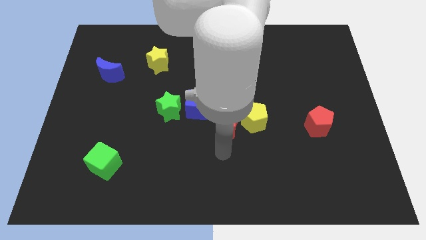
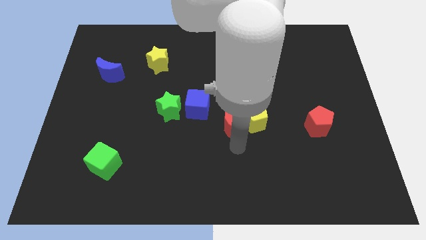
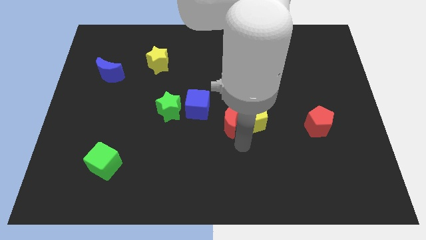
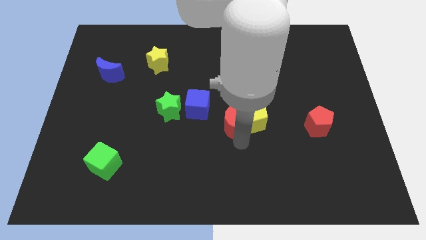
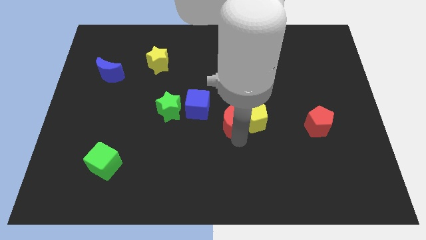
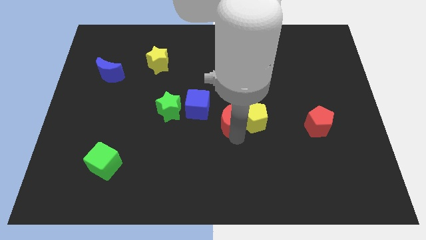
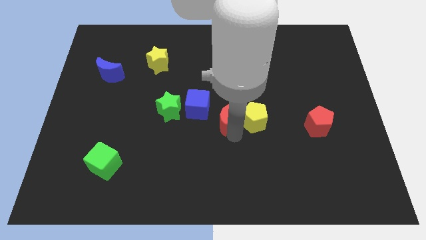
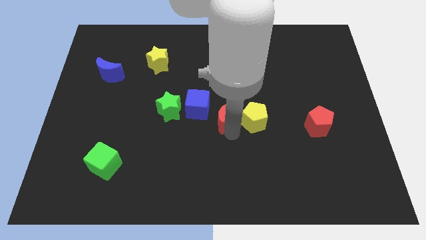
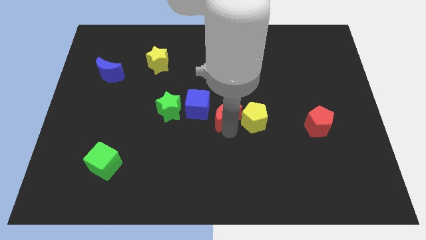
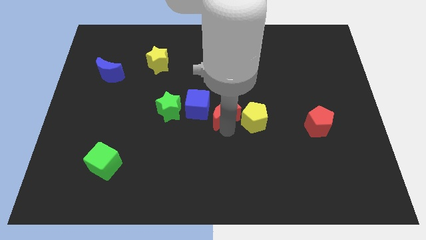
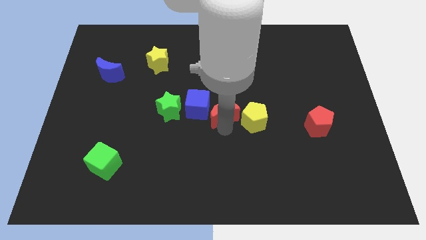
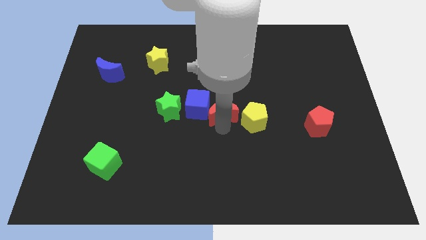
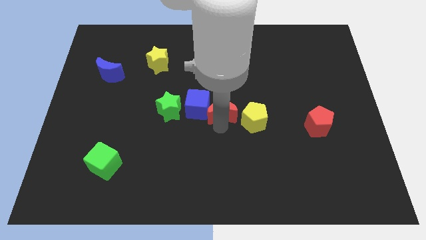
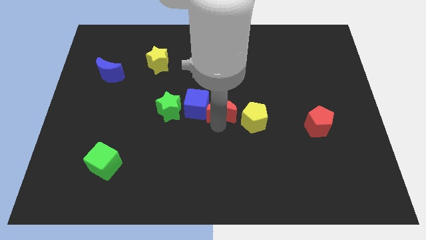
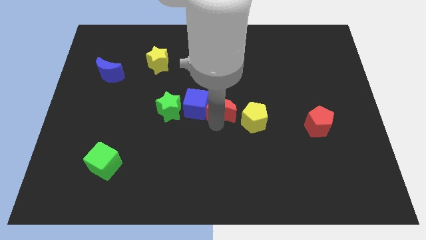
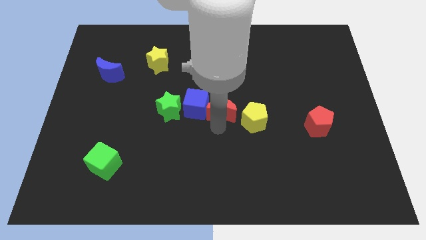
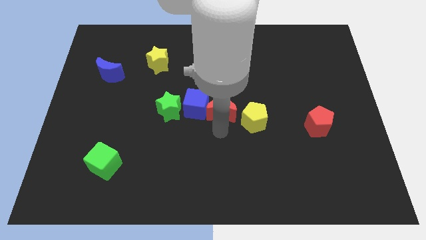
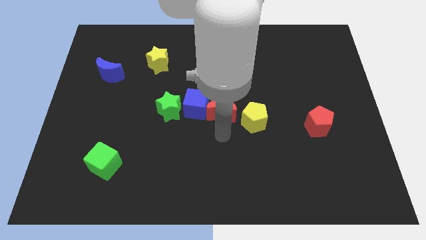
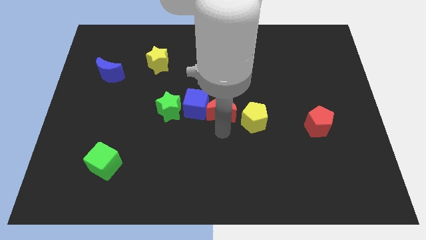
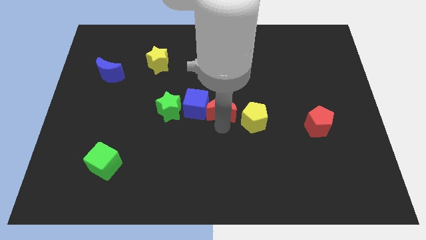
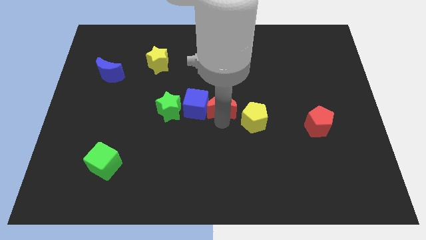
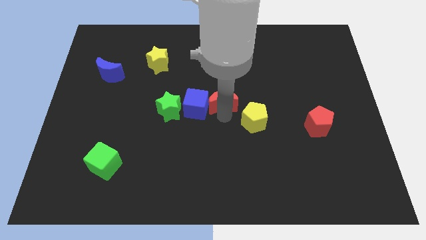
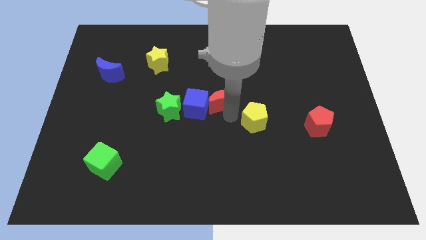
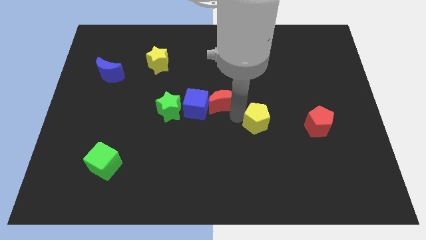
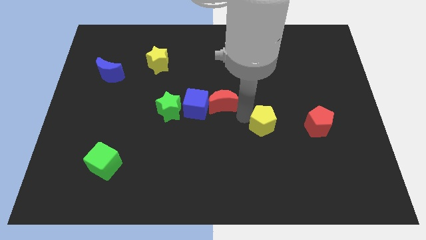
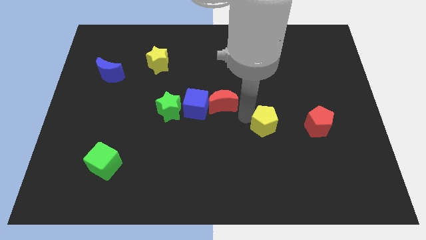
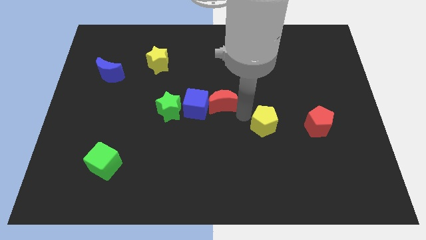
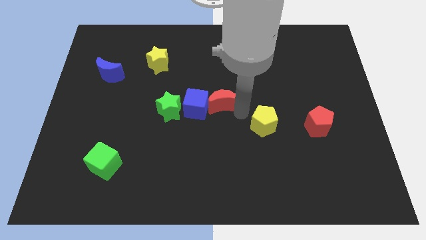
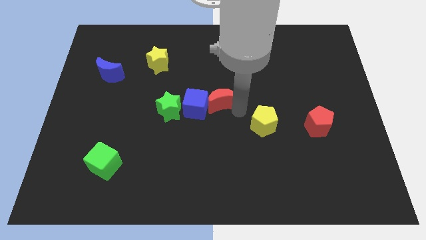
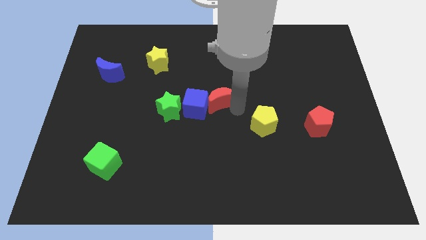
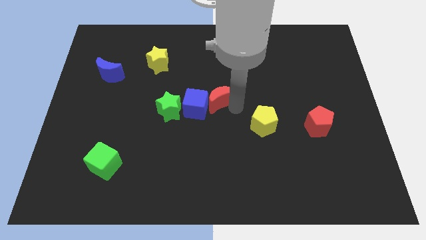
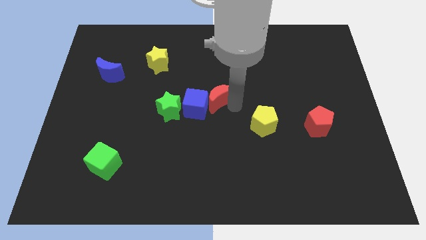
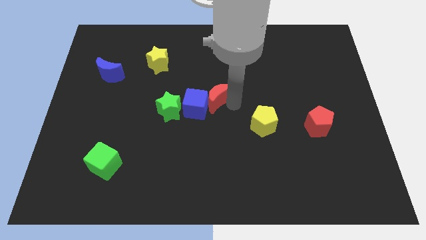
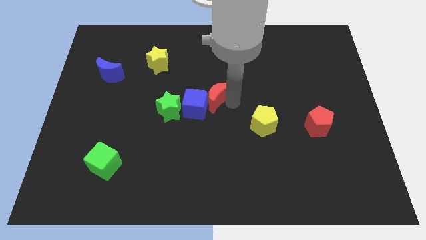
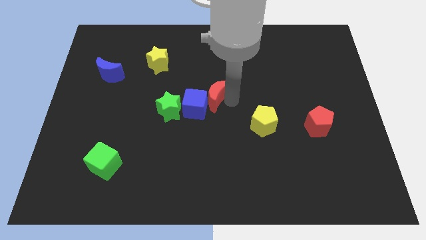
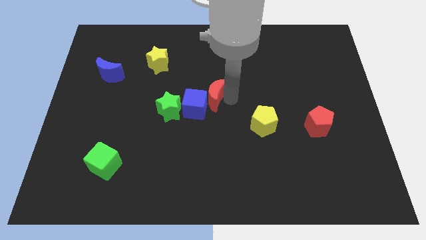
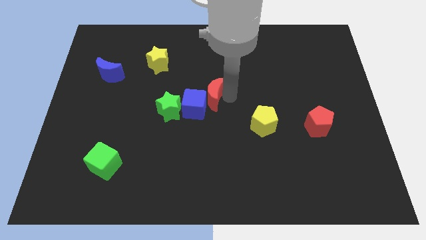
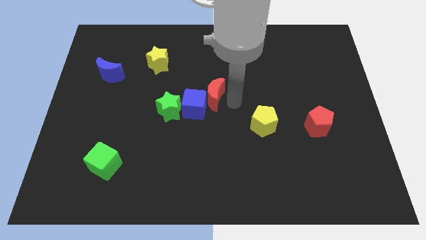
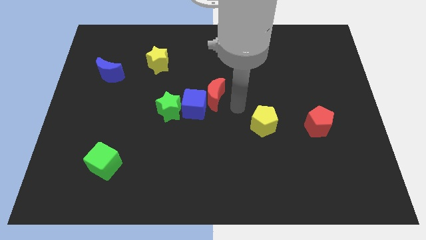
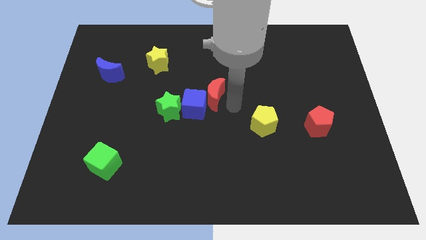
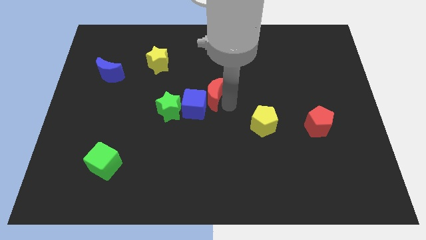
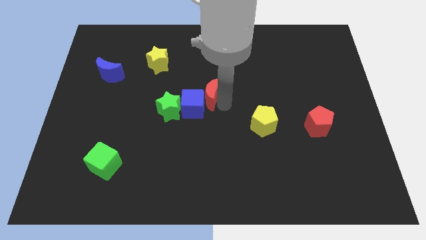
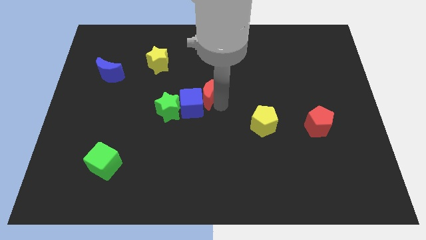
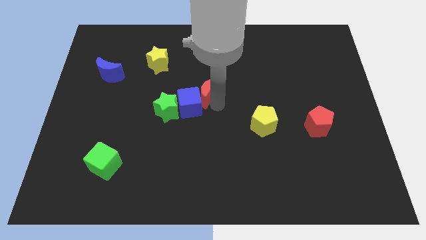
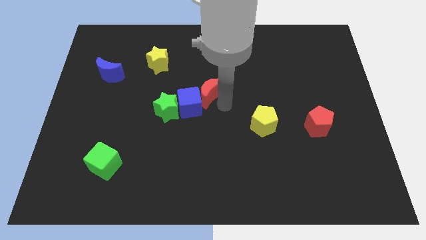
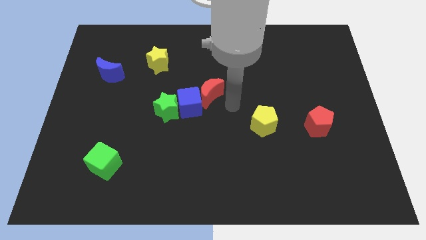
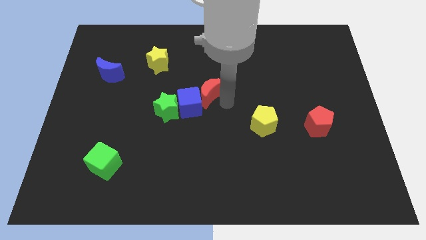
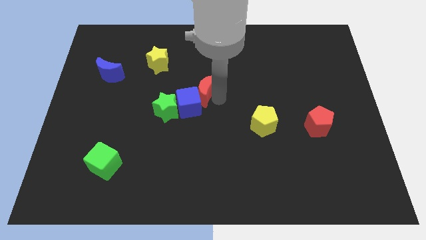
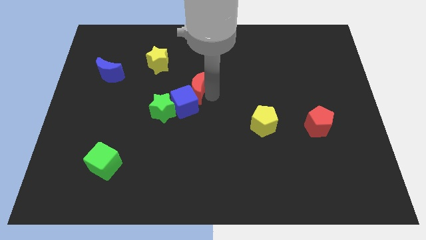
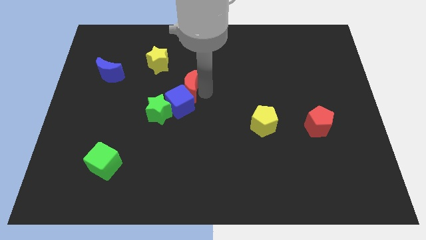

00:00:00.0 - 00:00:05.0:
move the red moon to the bottom right of the yellow star

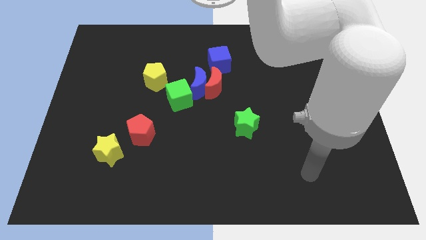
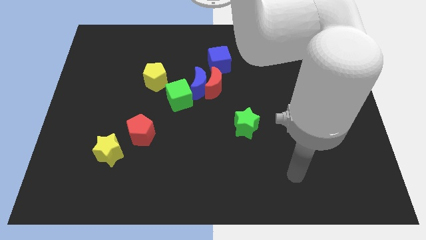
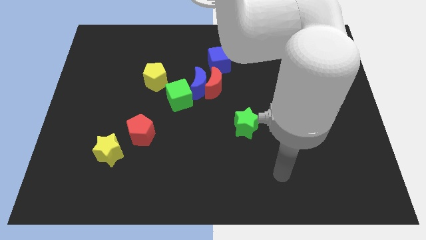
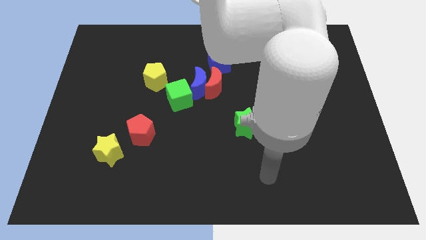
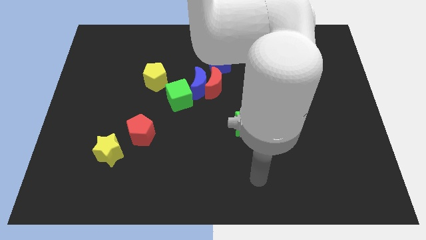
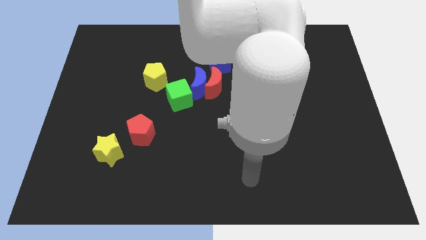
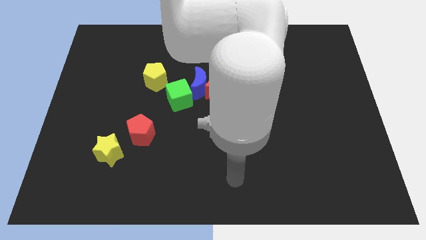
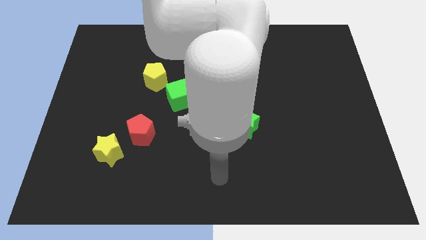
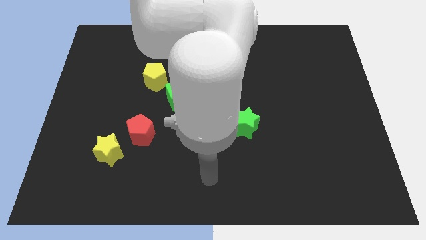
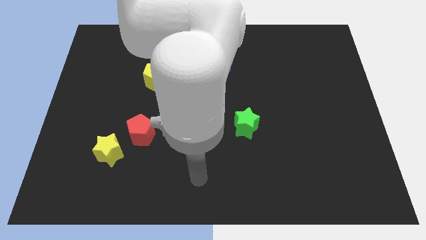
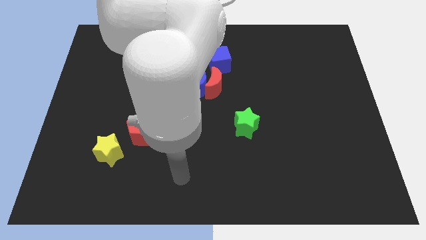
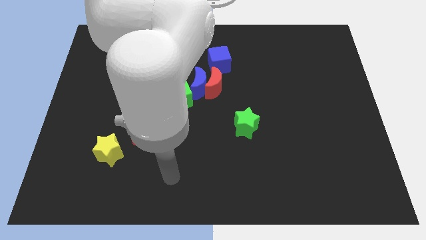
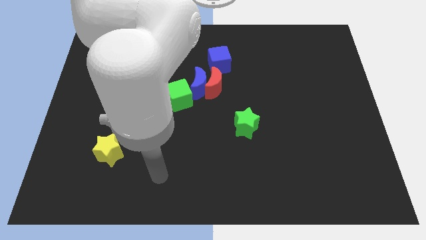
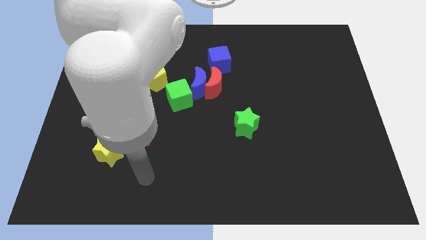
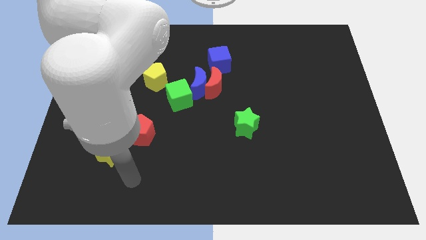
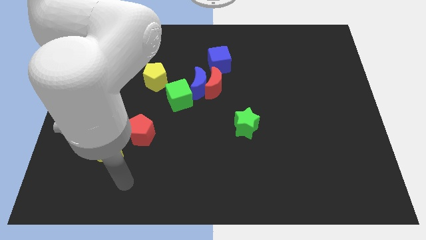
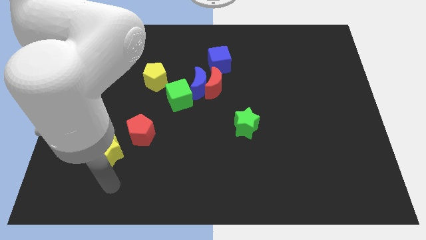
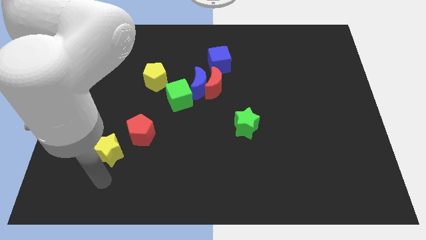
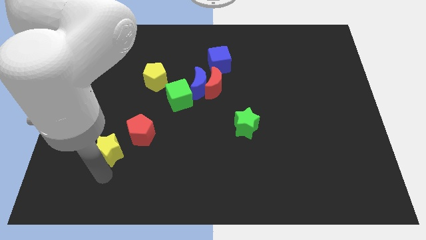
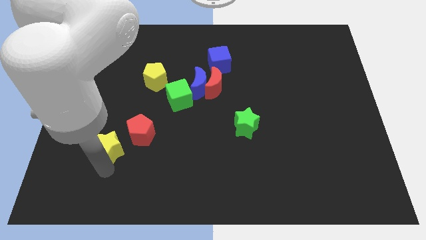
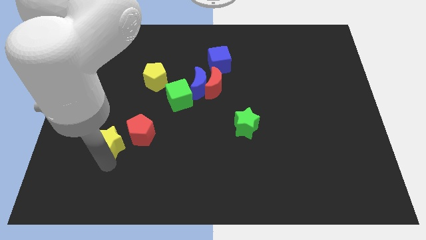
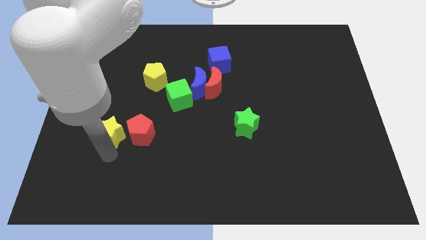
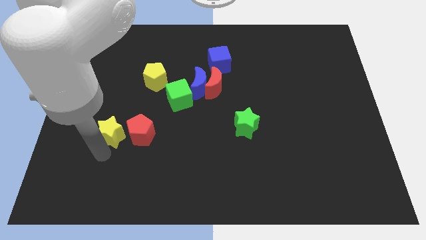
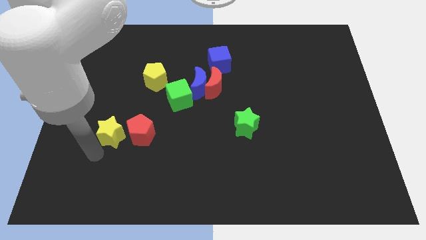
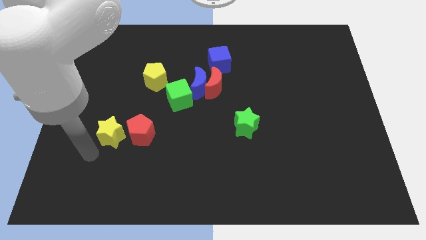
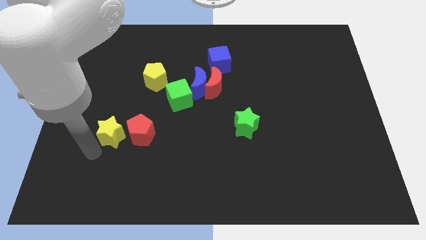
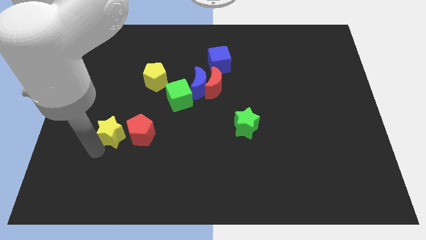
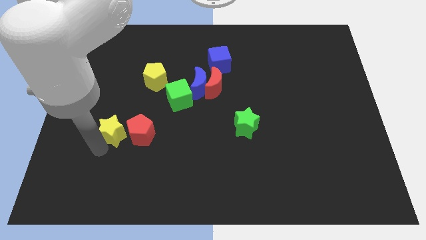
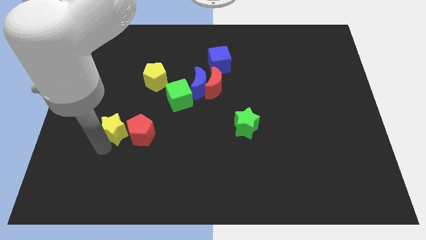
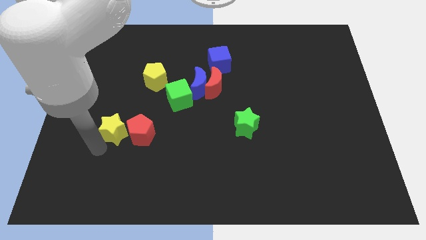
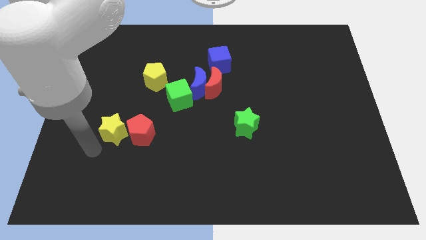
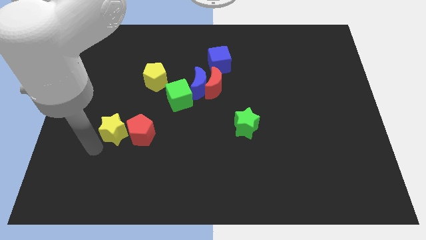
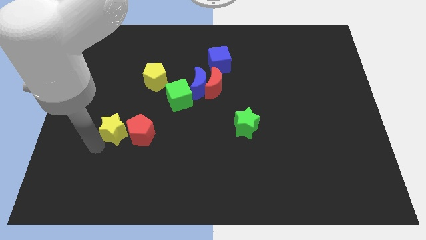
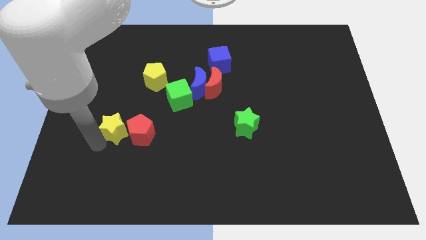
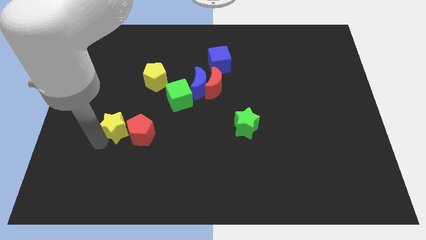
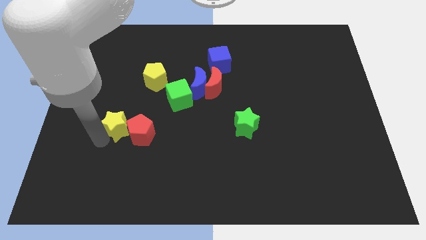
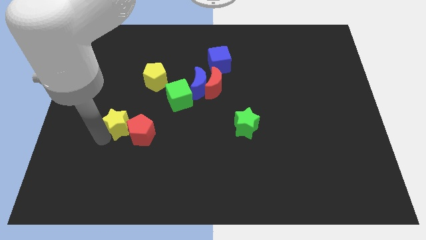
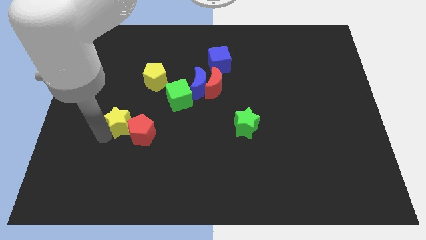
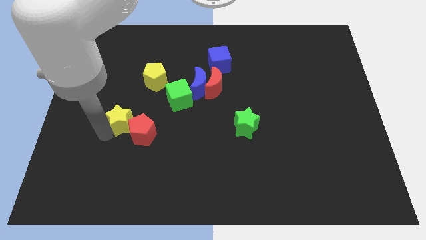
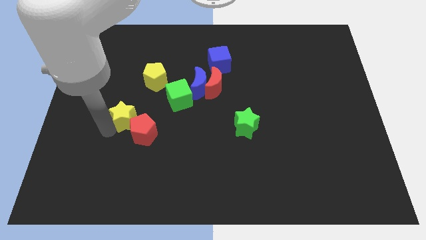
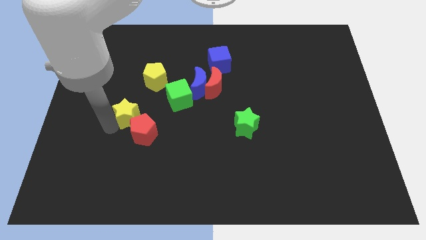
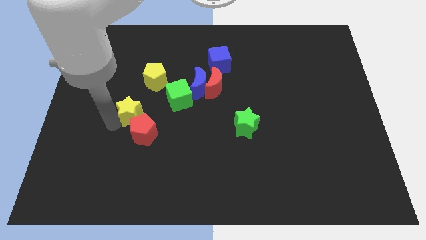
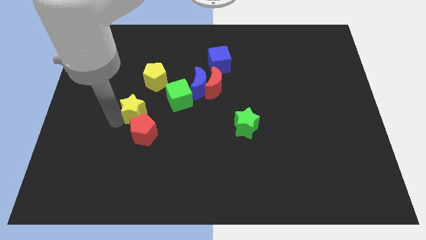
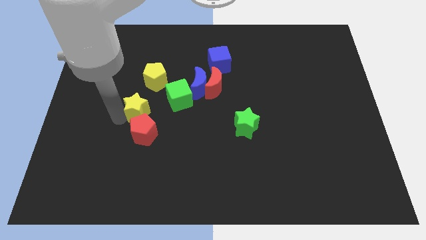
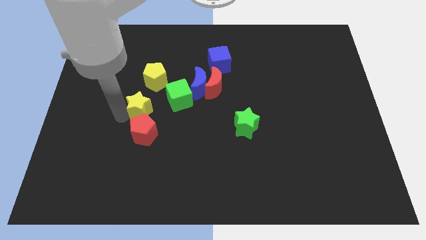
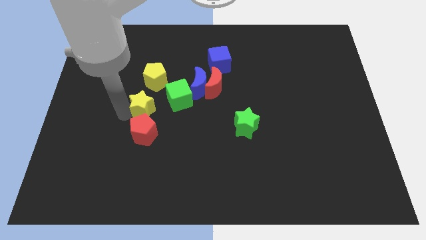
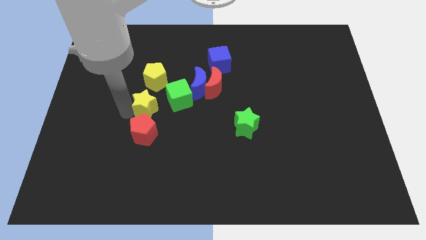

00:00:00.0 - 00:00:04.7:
slide the yellow star to the top right side of the red pentagon
